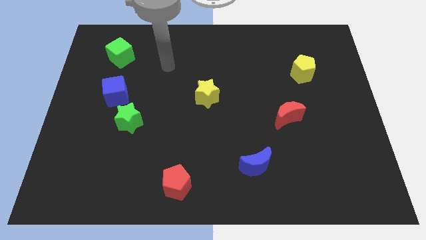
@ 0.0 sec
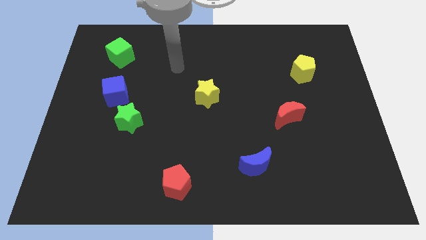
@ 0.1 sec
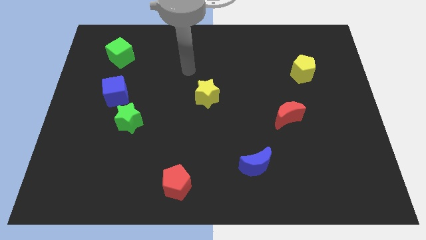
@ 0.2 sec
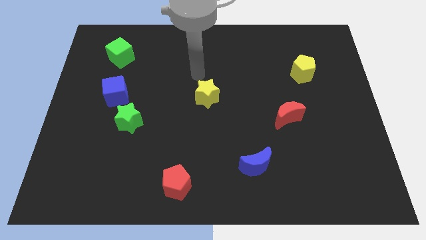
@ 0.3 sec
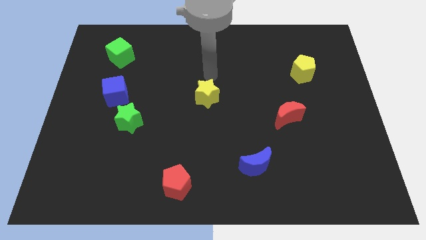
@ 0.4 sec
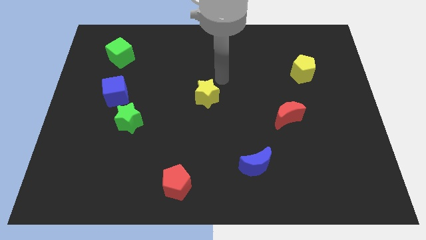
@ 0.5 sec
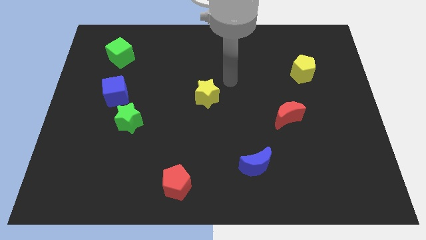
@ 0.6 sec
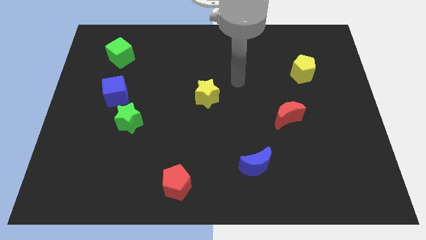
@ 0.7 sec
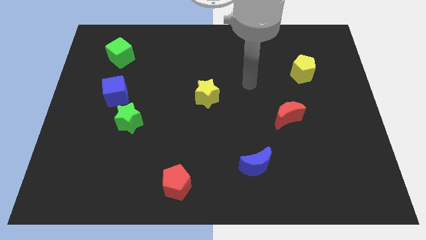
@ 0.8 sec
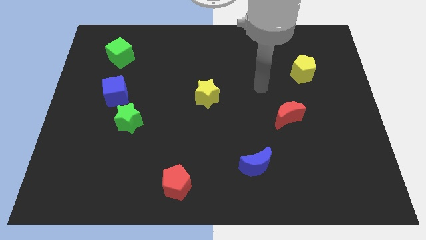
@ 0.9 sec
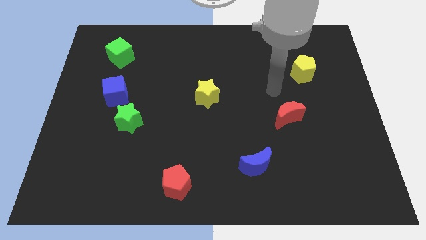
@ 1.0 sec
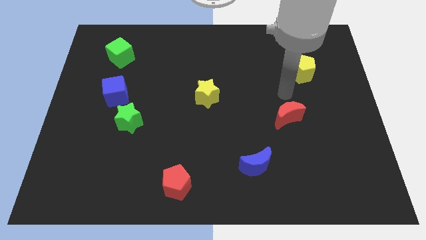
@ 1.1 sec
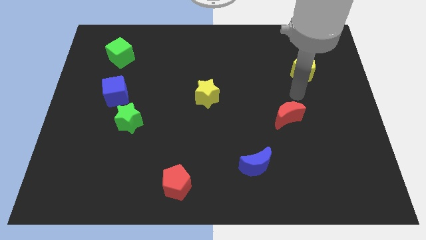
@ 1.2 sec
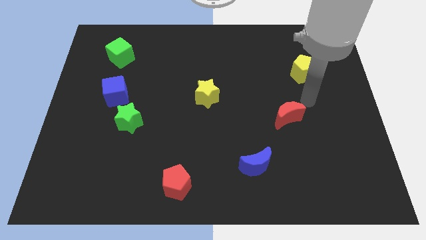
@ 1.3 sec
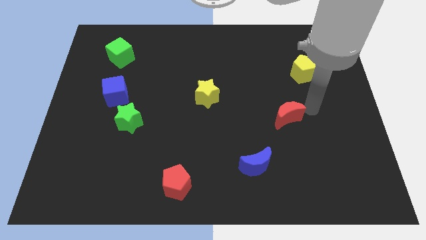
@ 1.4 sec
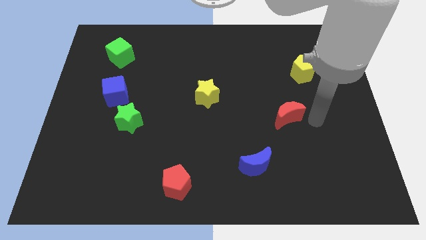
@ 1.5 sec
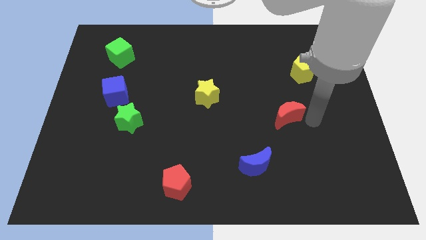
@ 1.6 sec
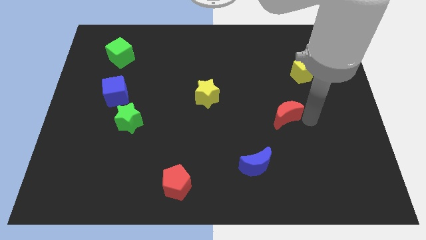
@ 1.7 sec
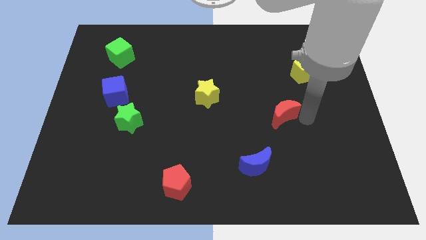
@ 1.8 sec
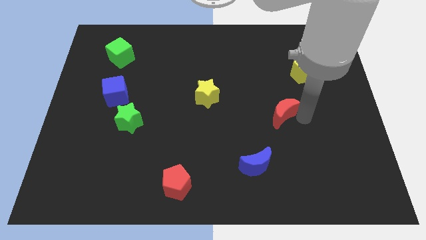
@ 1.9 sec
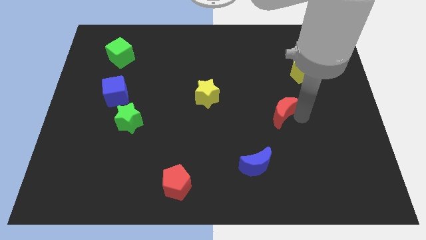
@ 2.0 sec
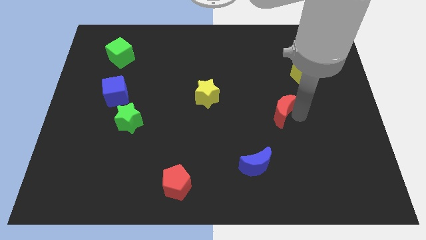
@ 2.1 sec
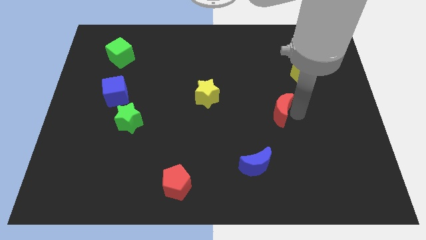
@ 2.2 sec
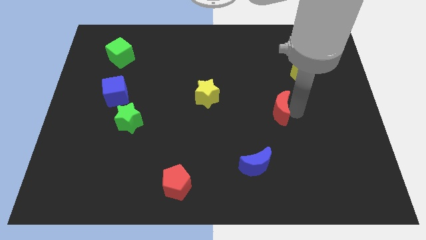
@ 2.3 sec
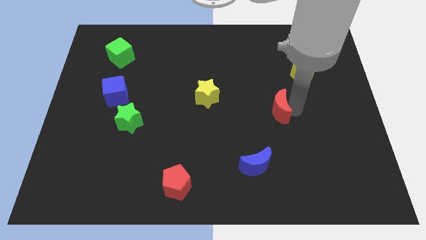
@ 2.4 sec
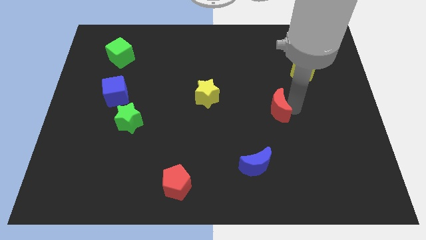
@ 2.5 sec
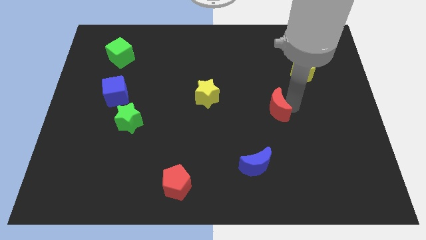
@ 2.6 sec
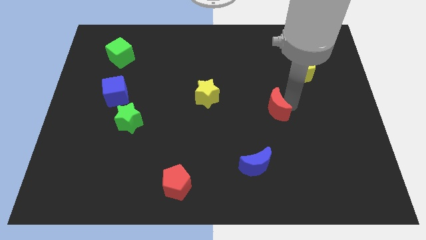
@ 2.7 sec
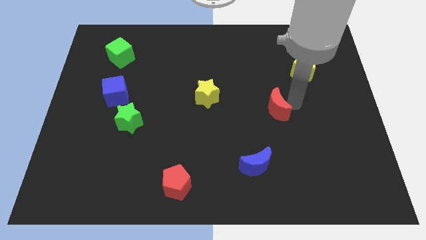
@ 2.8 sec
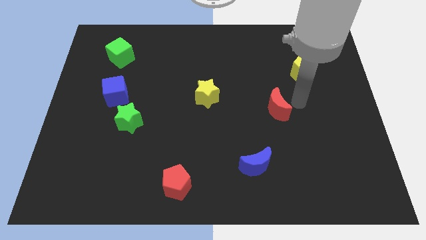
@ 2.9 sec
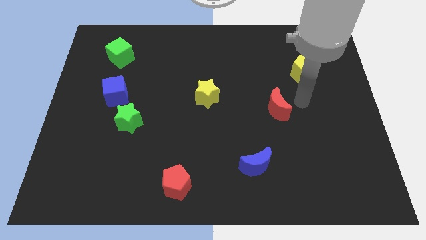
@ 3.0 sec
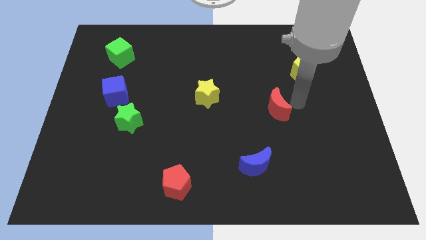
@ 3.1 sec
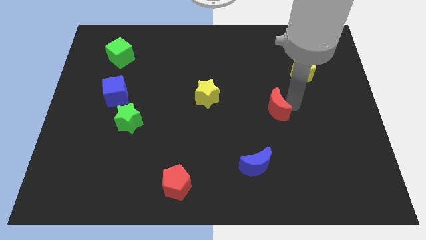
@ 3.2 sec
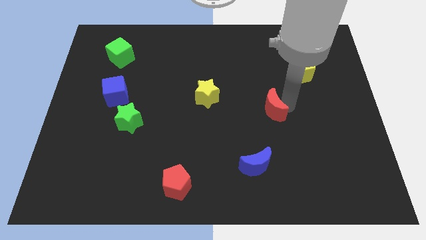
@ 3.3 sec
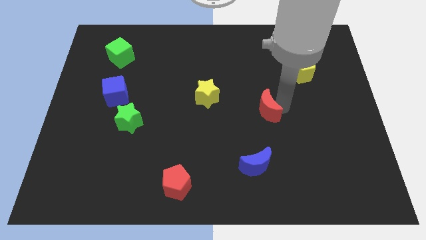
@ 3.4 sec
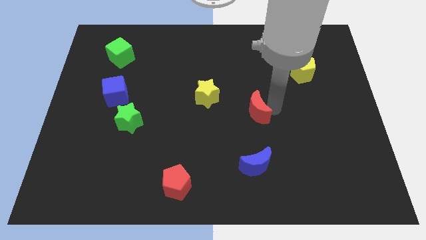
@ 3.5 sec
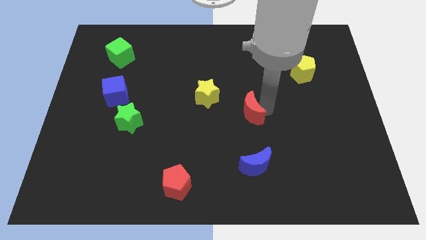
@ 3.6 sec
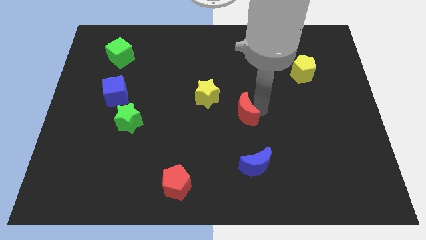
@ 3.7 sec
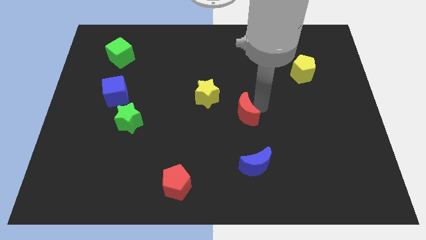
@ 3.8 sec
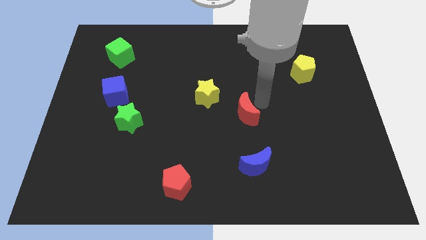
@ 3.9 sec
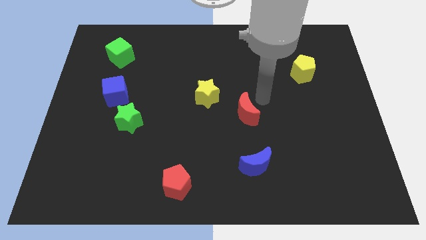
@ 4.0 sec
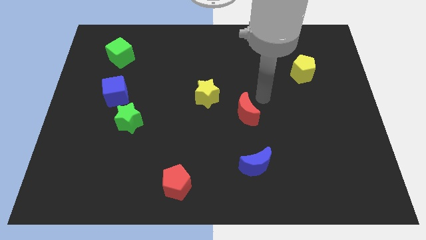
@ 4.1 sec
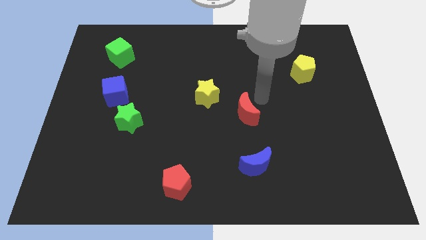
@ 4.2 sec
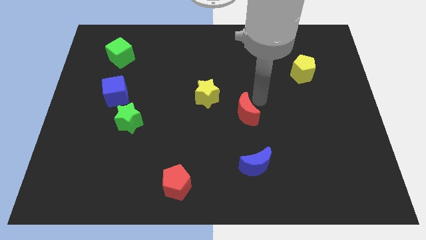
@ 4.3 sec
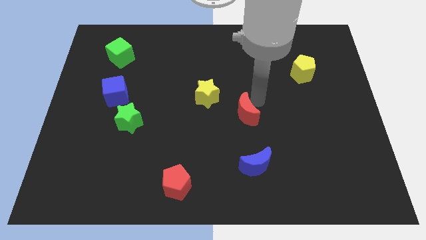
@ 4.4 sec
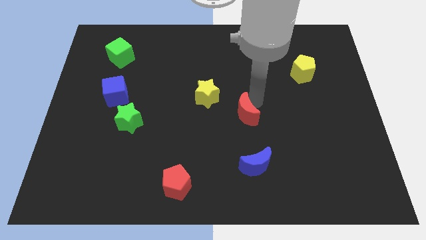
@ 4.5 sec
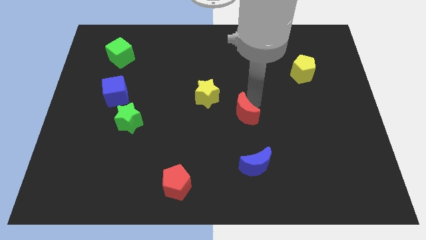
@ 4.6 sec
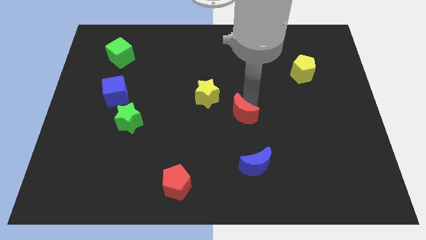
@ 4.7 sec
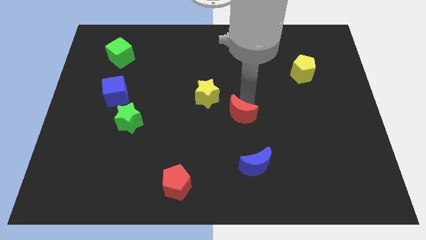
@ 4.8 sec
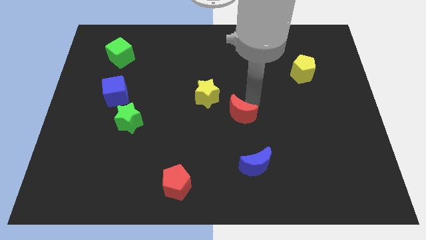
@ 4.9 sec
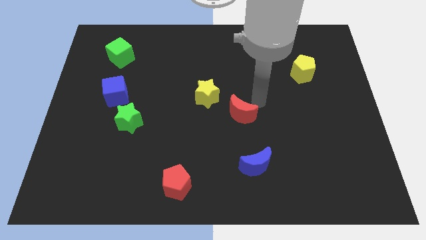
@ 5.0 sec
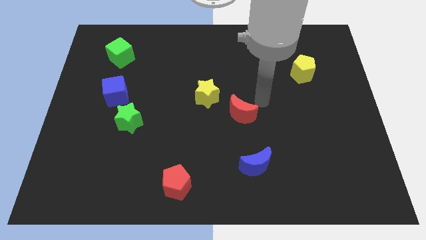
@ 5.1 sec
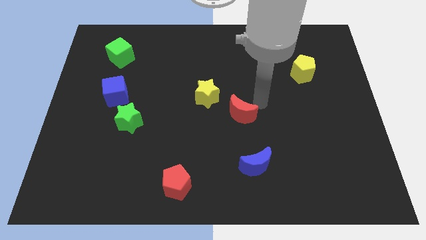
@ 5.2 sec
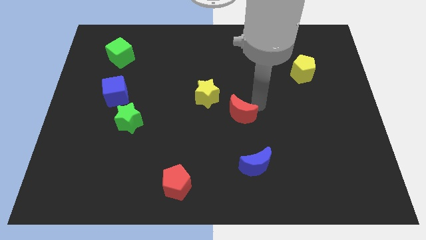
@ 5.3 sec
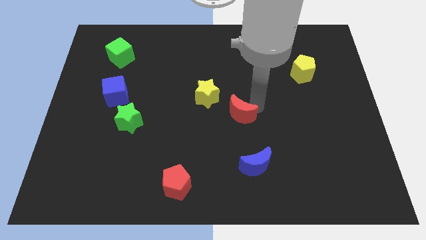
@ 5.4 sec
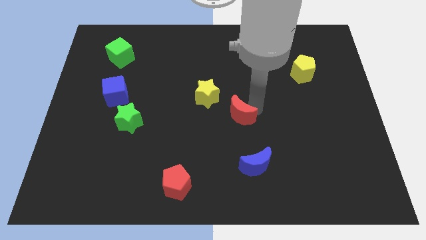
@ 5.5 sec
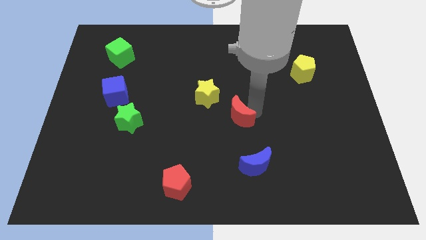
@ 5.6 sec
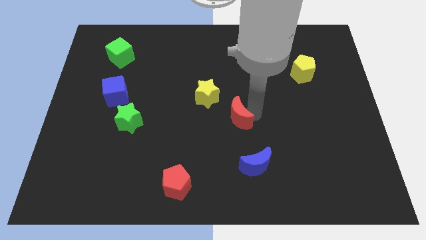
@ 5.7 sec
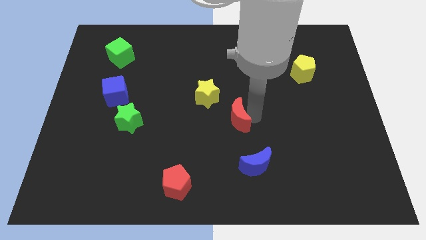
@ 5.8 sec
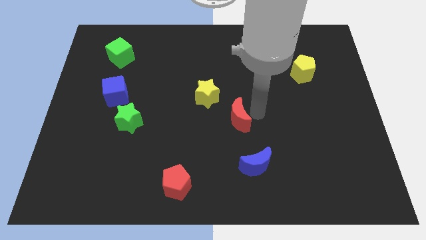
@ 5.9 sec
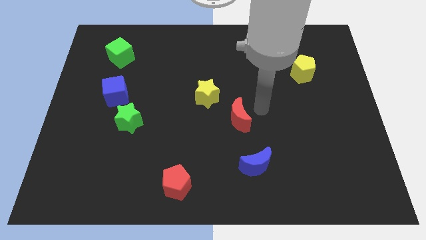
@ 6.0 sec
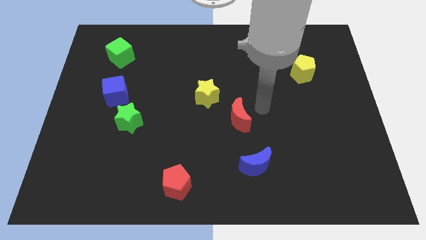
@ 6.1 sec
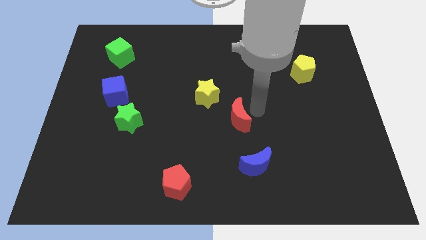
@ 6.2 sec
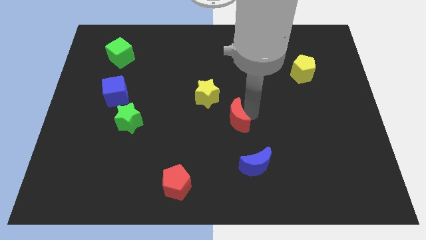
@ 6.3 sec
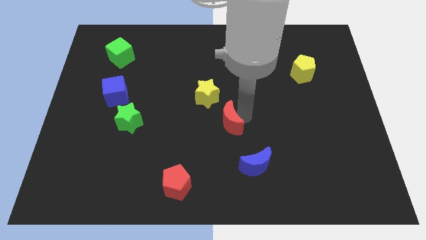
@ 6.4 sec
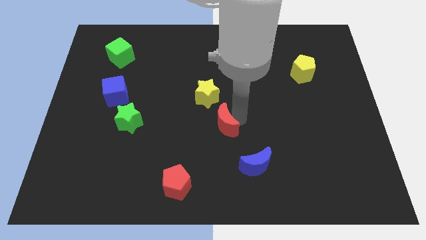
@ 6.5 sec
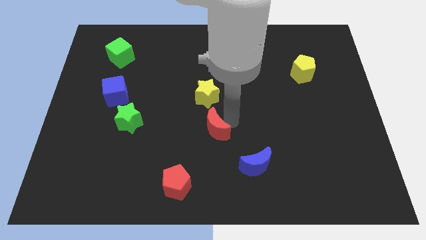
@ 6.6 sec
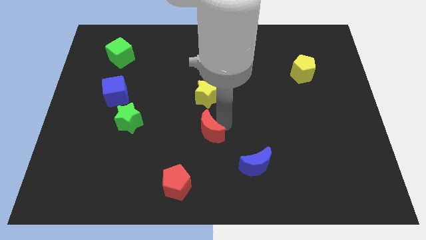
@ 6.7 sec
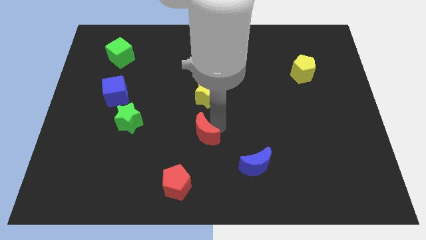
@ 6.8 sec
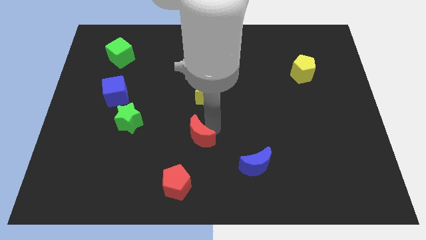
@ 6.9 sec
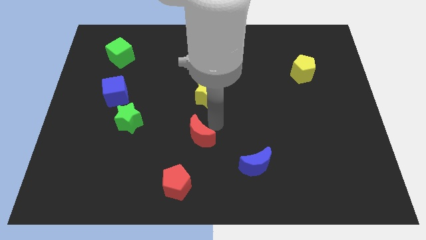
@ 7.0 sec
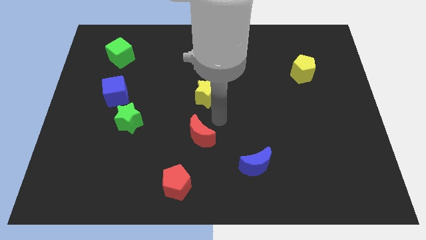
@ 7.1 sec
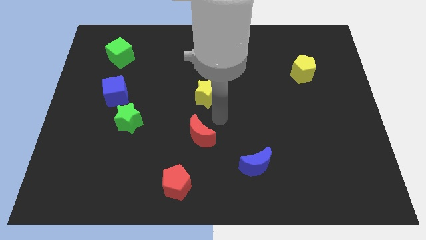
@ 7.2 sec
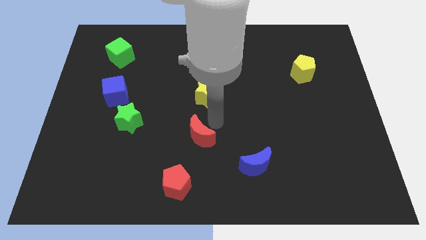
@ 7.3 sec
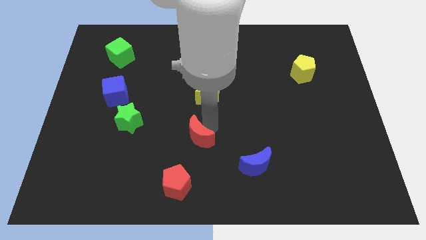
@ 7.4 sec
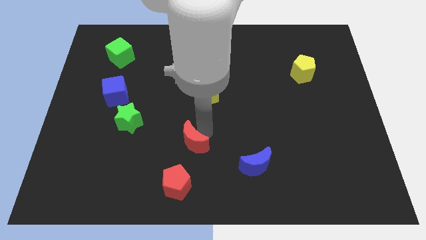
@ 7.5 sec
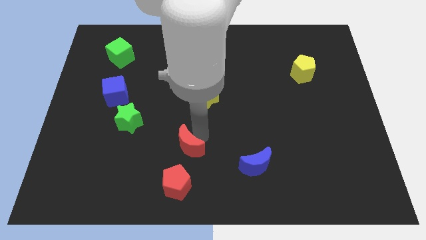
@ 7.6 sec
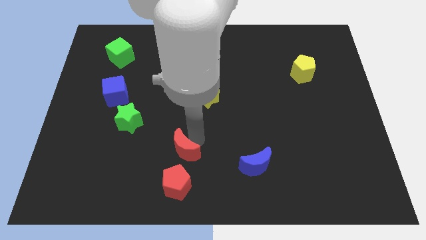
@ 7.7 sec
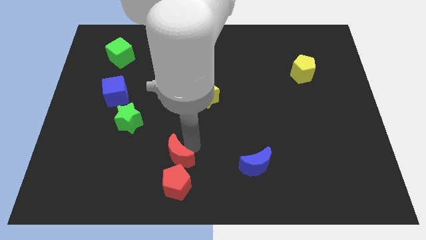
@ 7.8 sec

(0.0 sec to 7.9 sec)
push the red moon diagonally up and to the left of the red pentagon
